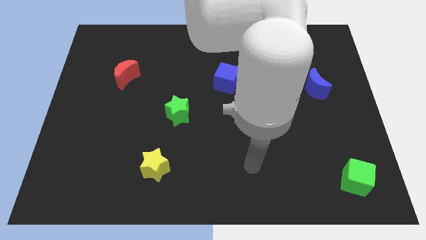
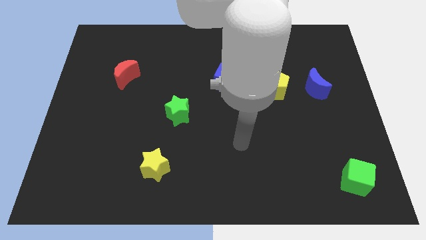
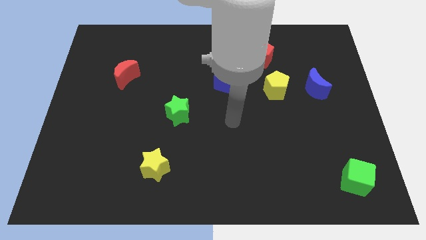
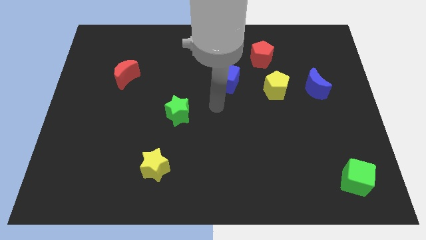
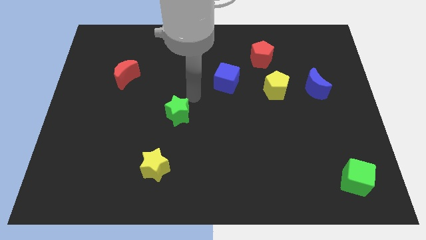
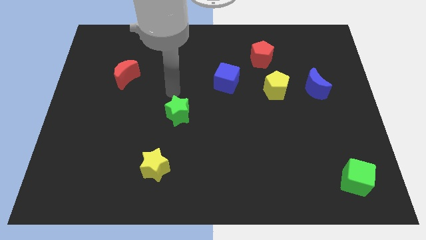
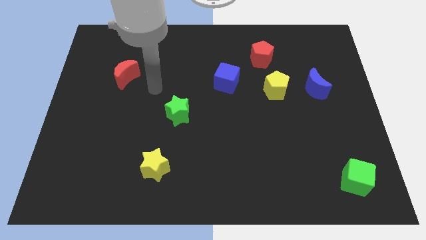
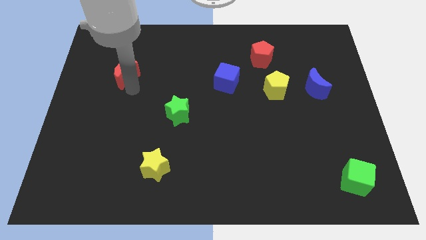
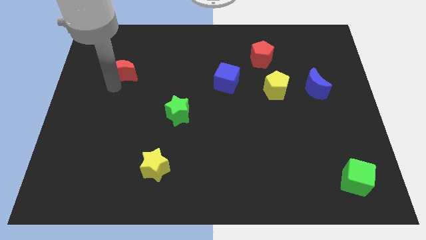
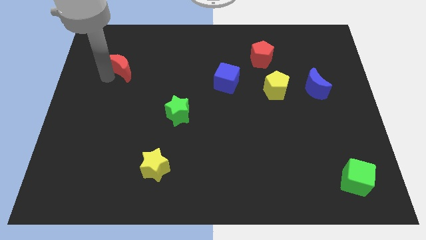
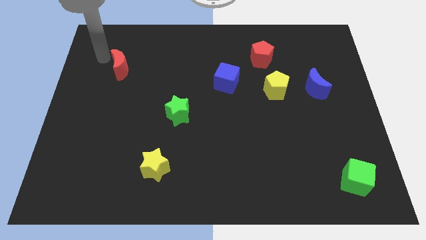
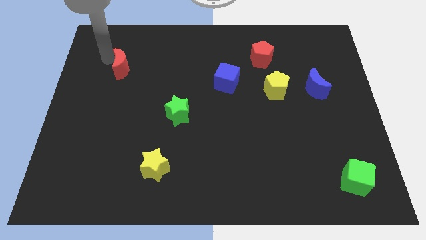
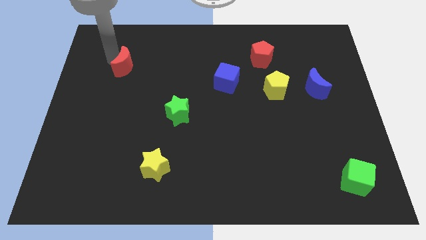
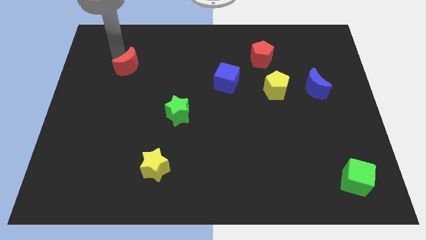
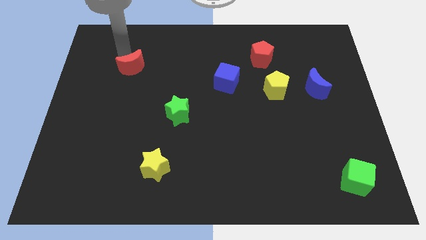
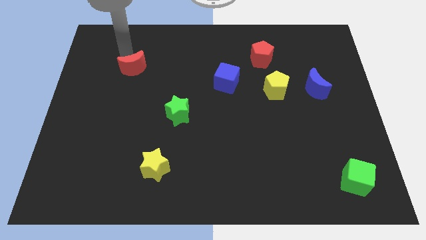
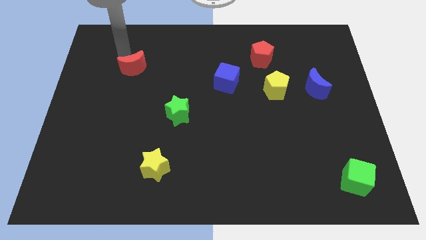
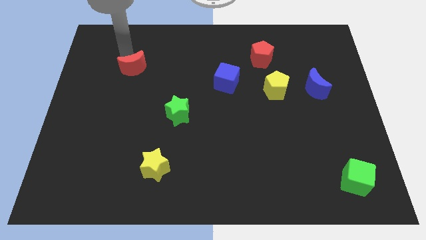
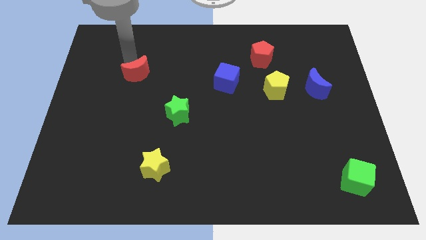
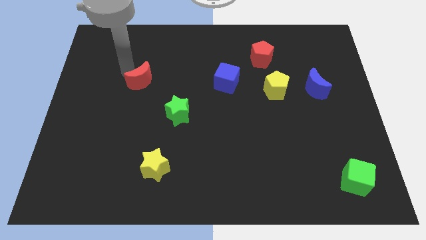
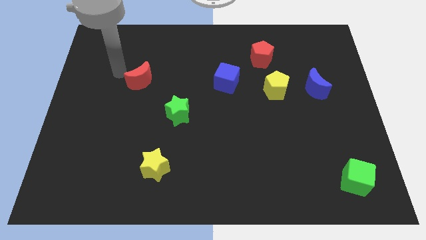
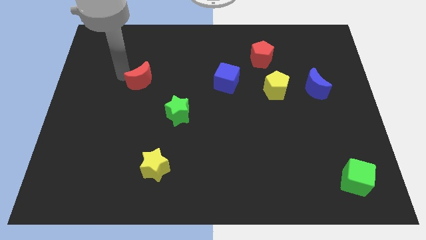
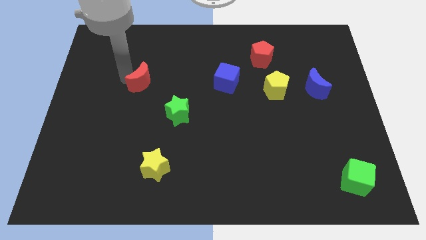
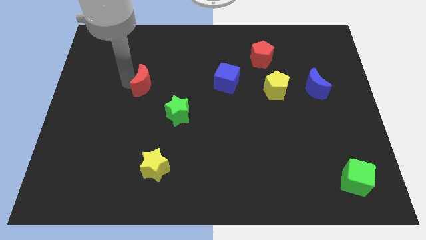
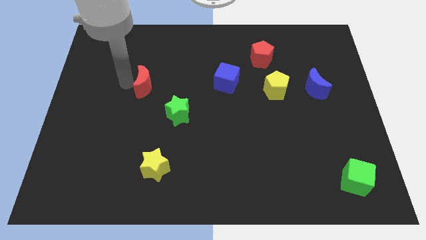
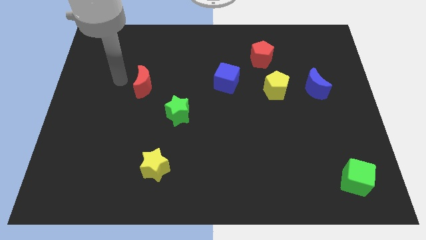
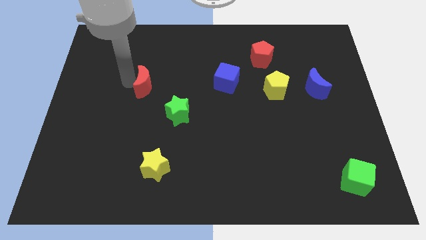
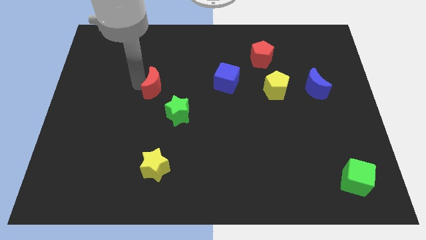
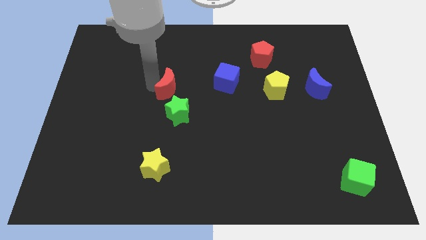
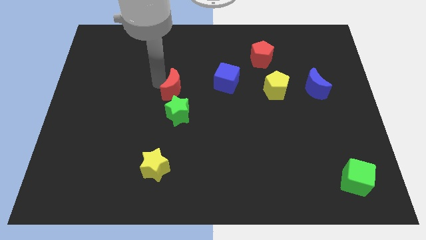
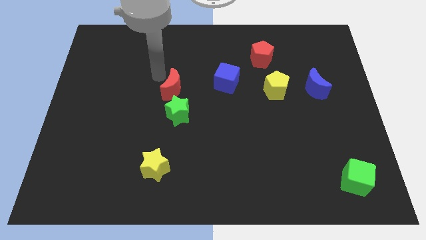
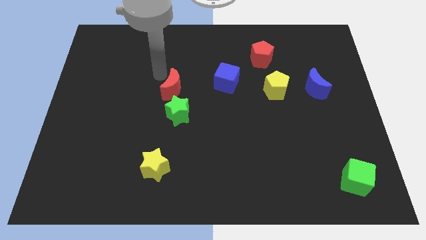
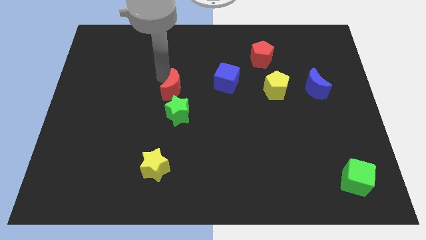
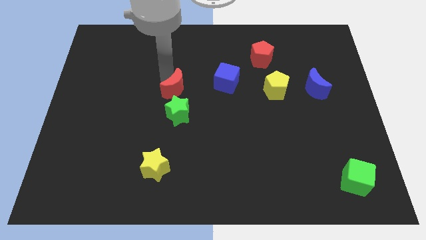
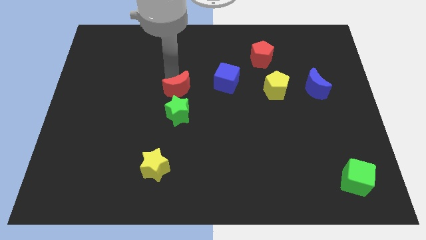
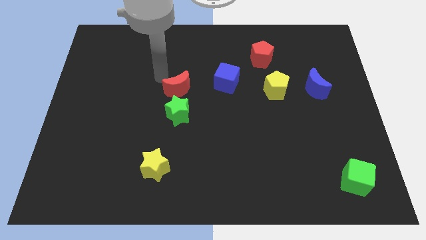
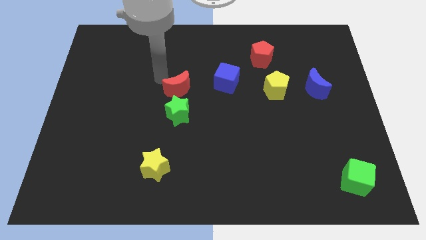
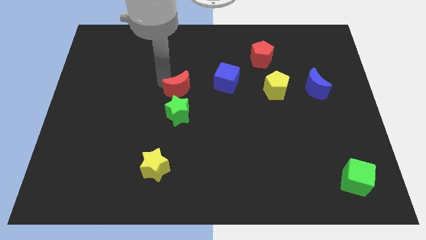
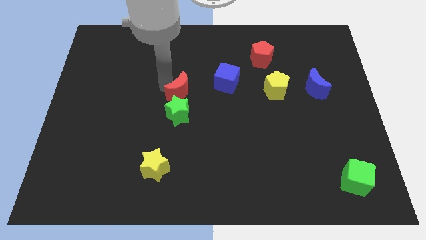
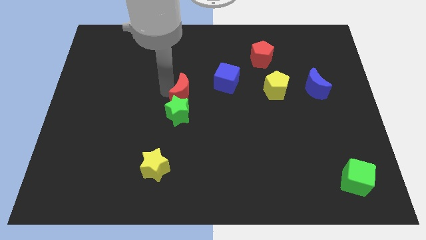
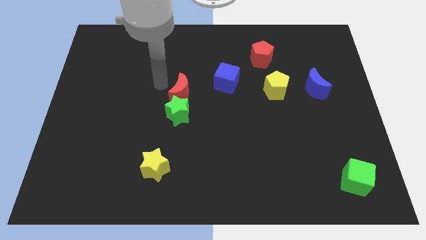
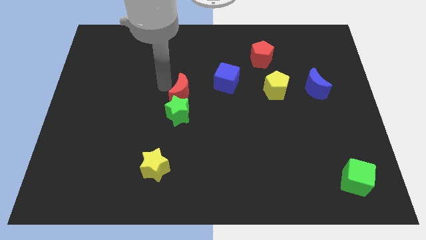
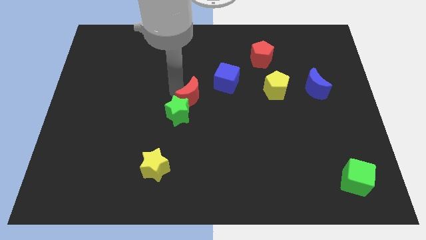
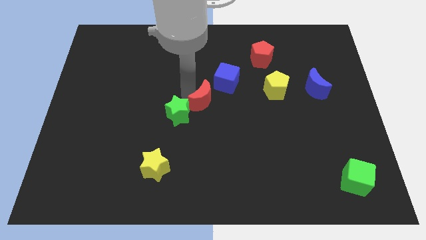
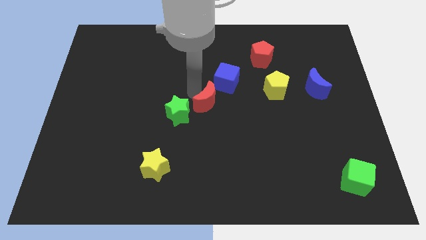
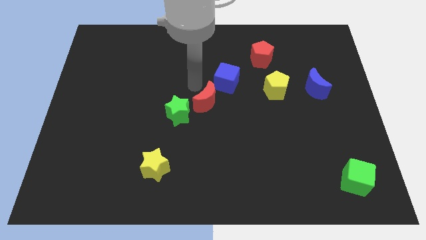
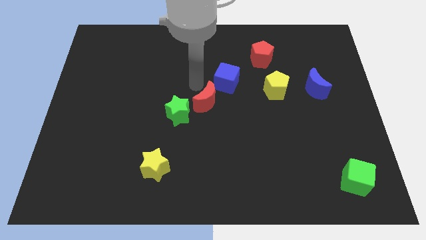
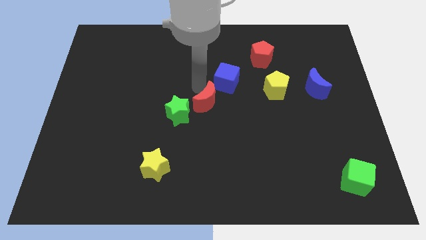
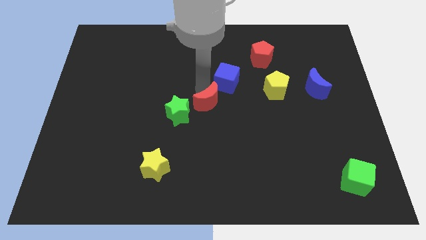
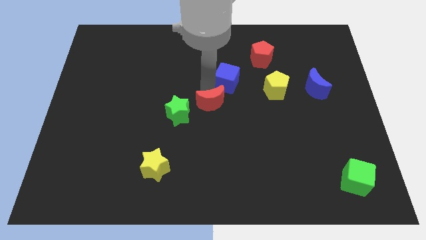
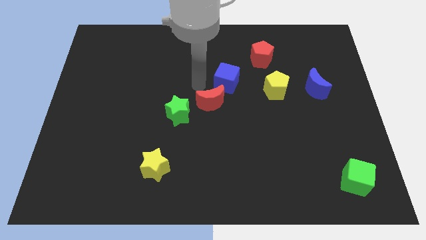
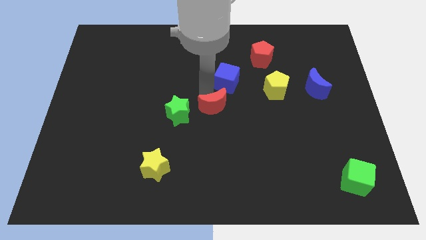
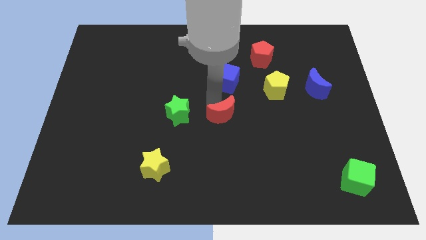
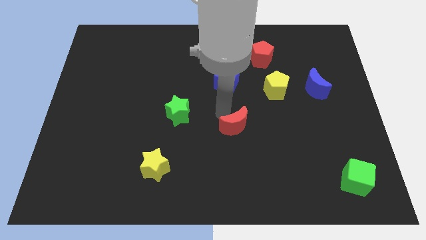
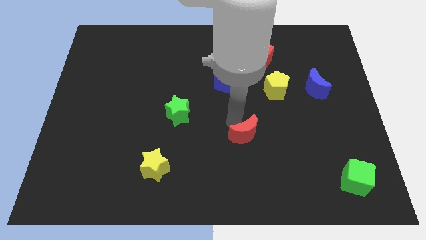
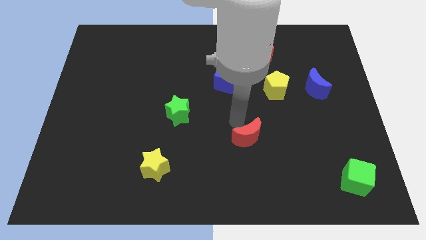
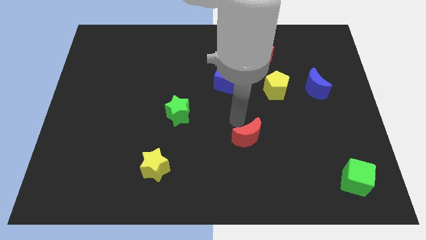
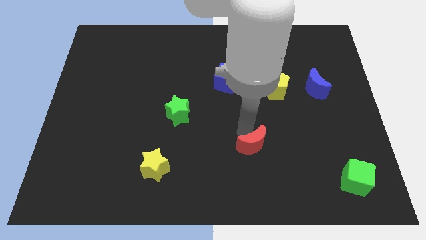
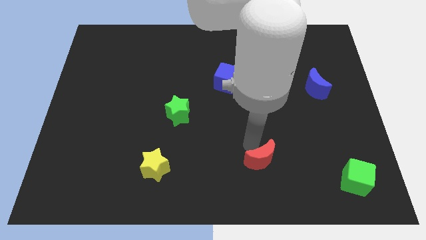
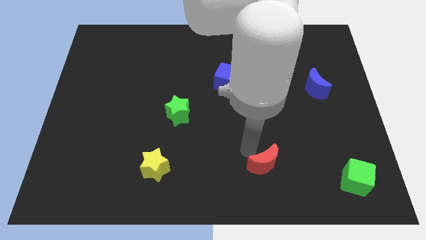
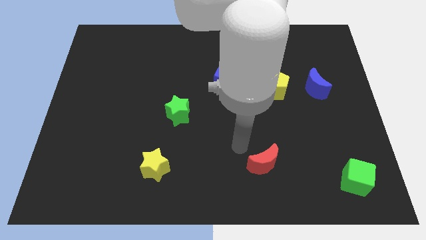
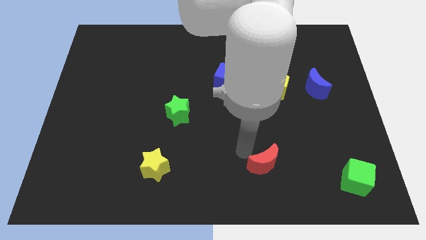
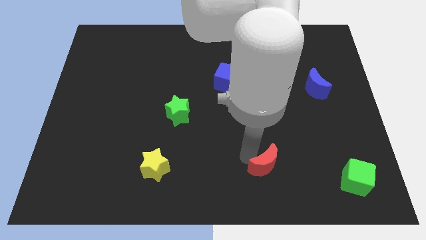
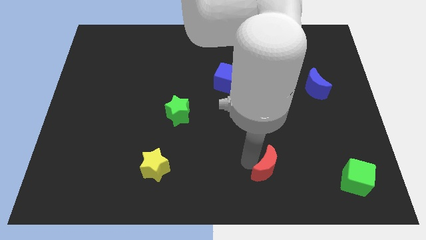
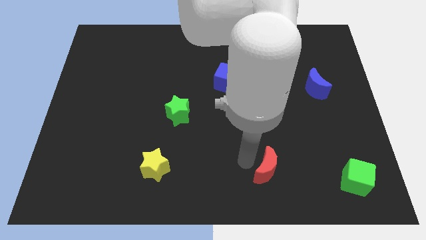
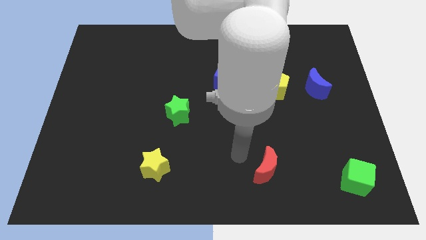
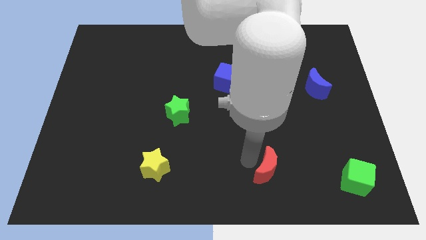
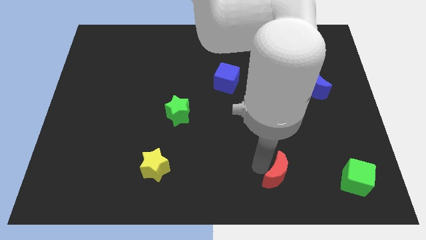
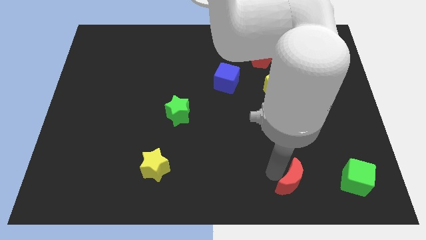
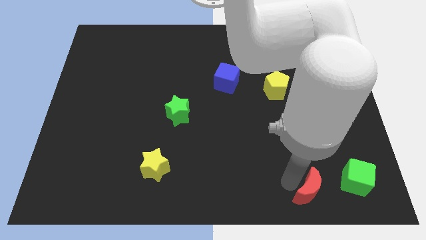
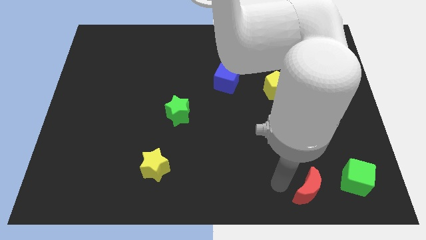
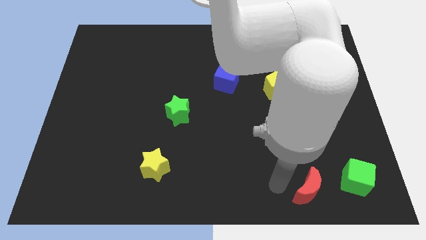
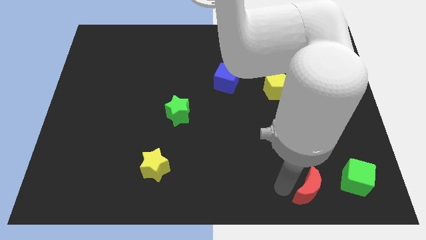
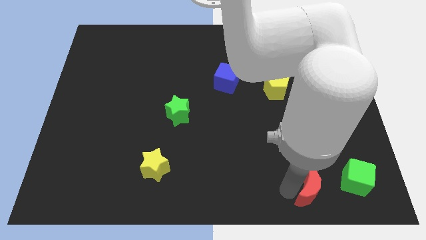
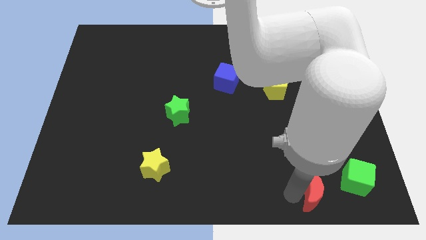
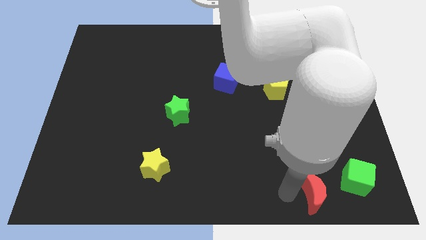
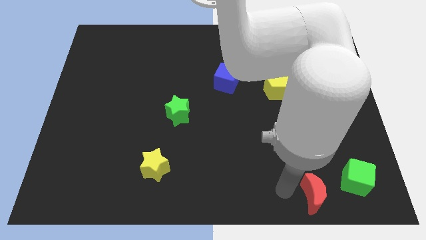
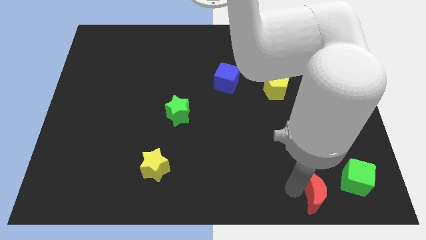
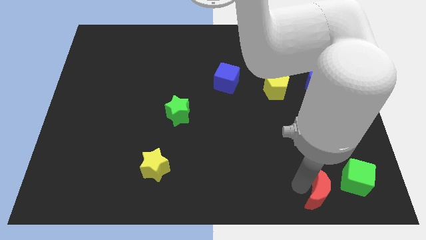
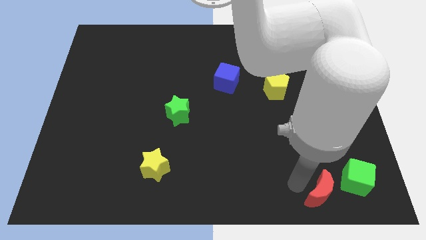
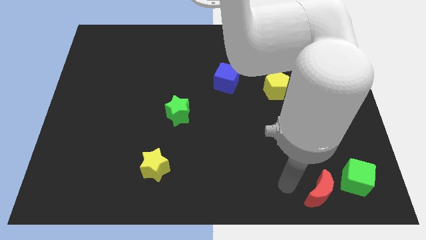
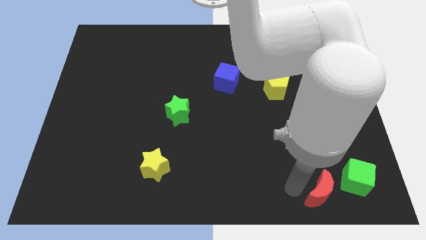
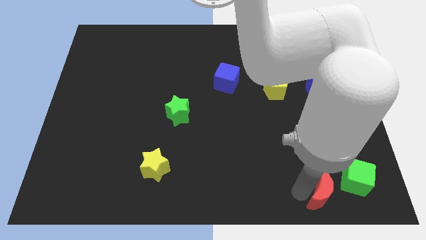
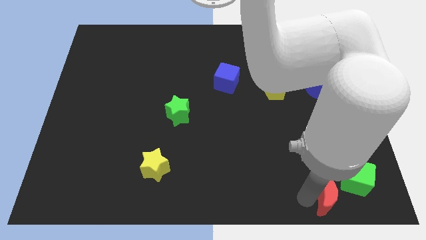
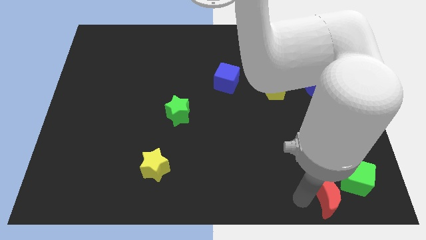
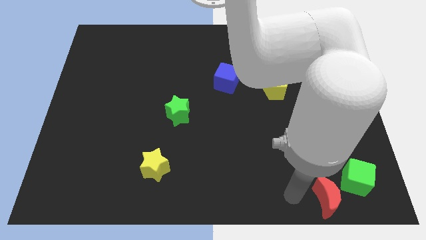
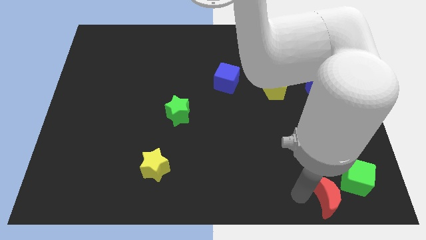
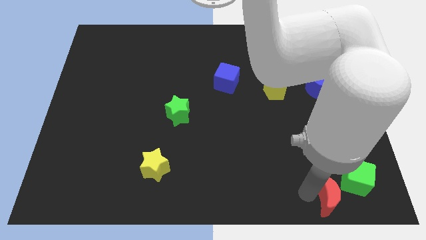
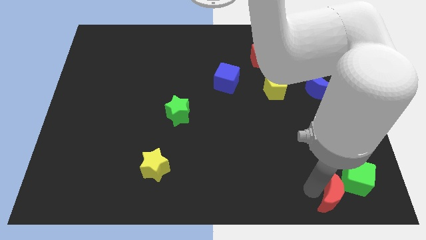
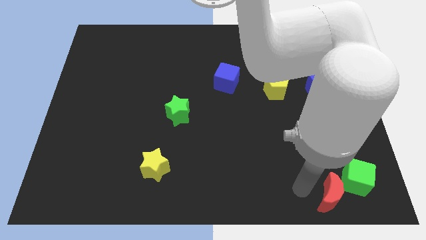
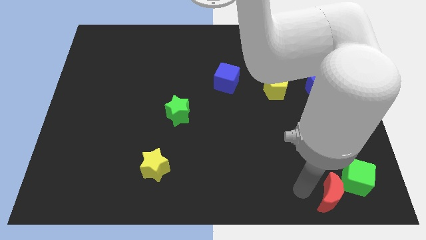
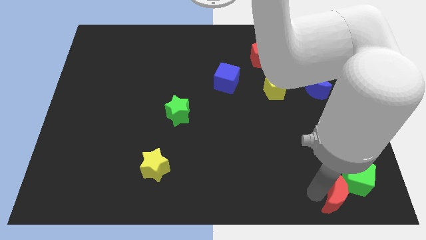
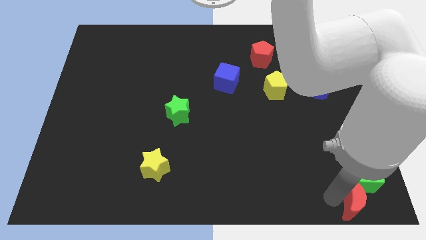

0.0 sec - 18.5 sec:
put the red moon to the bottom right of the board
